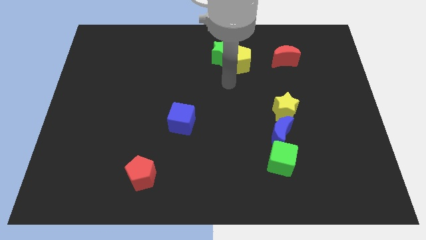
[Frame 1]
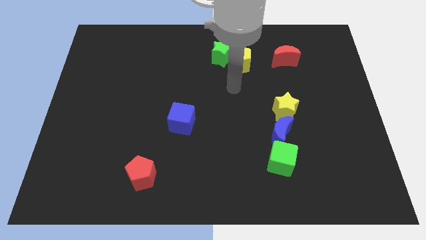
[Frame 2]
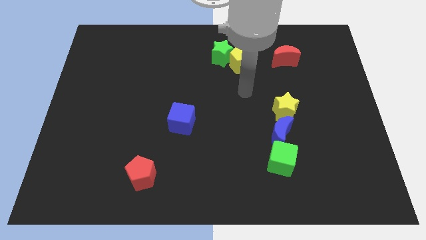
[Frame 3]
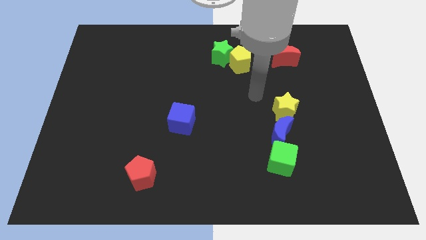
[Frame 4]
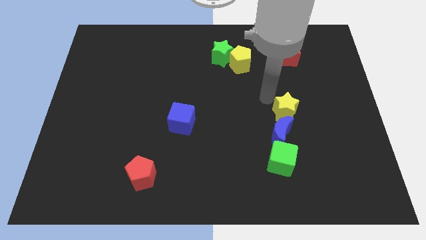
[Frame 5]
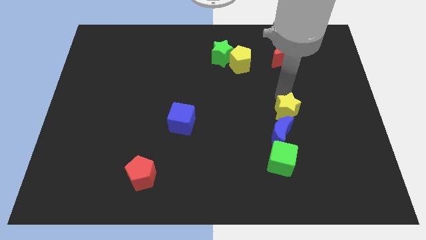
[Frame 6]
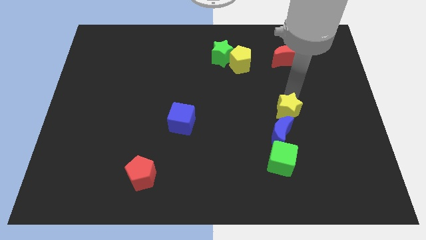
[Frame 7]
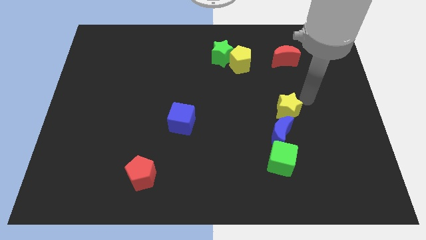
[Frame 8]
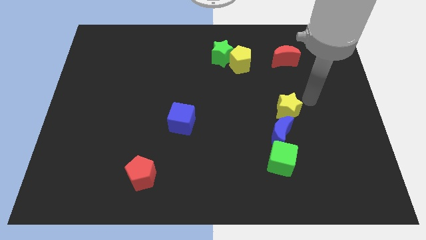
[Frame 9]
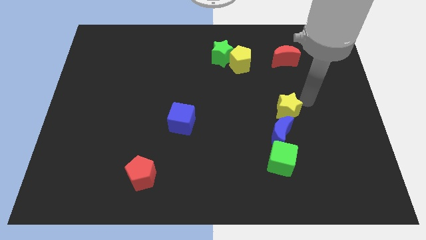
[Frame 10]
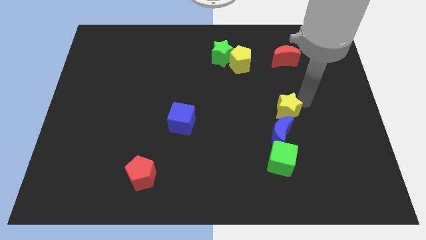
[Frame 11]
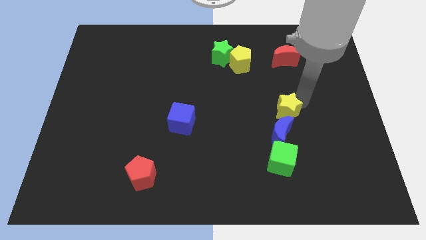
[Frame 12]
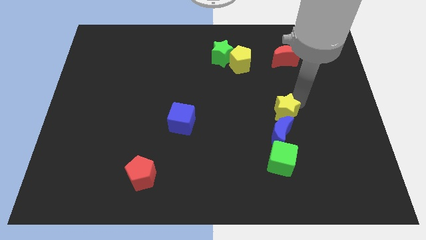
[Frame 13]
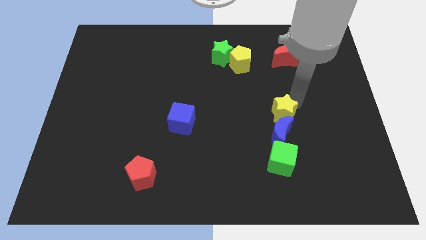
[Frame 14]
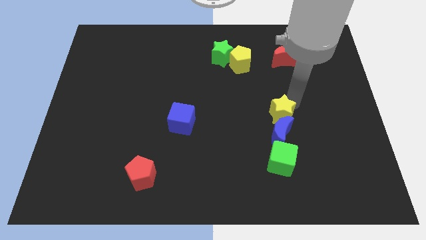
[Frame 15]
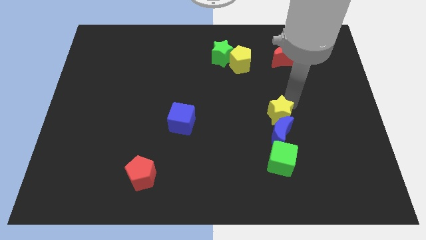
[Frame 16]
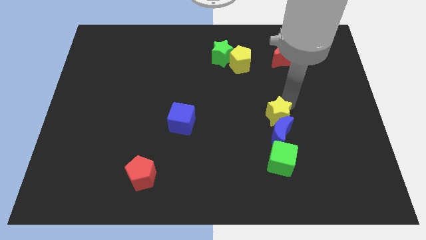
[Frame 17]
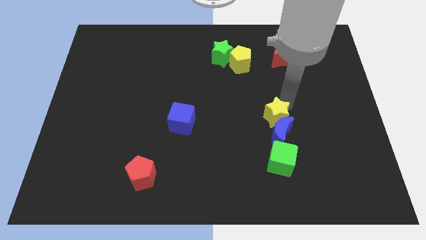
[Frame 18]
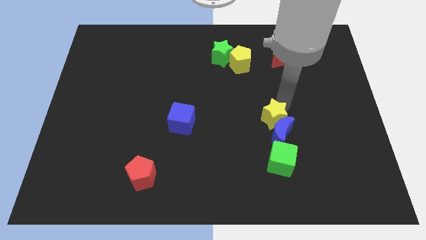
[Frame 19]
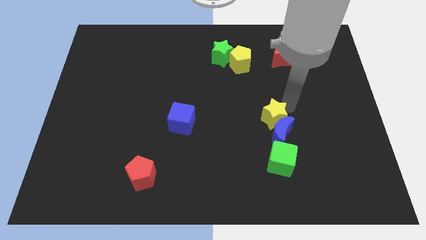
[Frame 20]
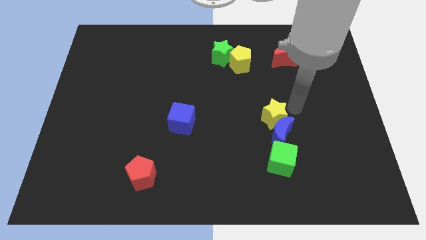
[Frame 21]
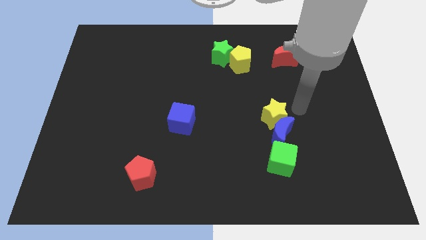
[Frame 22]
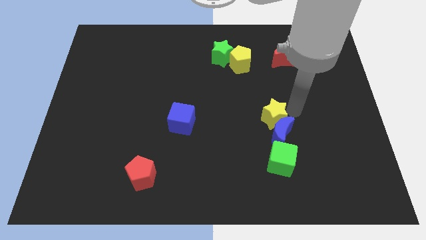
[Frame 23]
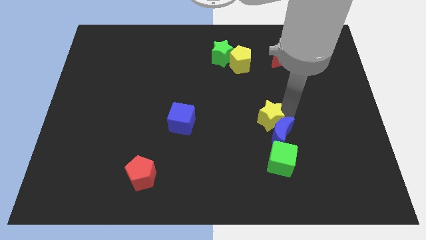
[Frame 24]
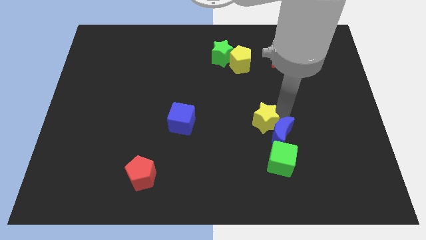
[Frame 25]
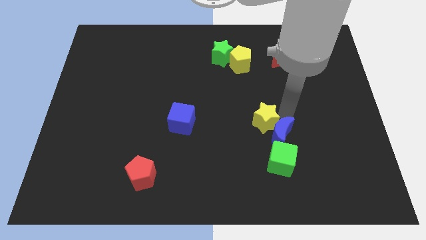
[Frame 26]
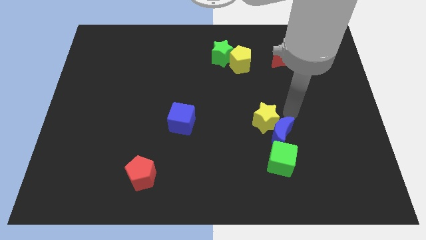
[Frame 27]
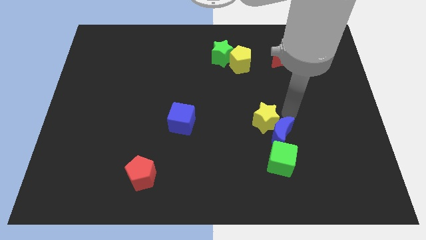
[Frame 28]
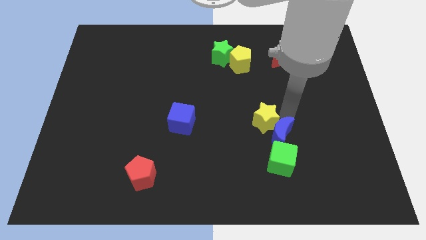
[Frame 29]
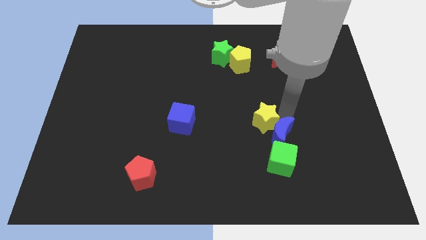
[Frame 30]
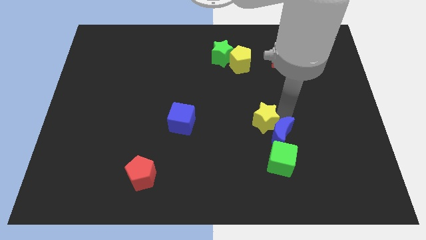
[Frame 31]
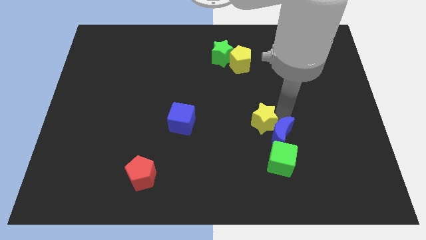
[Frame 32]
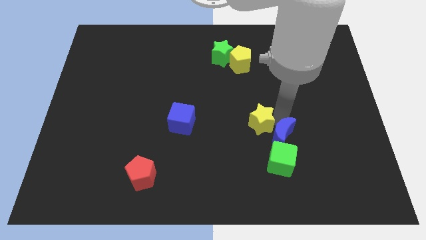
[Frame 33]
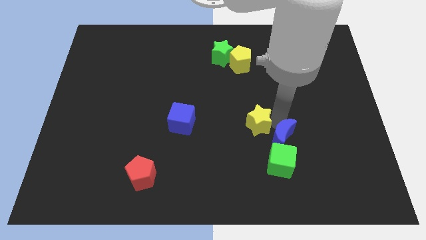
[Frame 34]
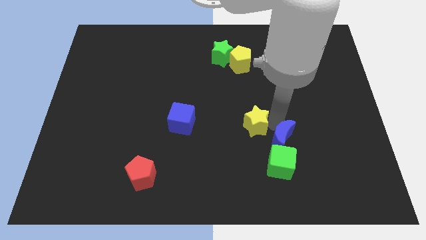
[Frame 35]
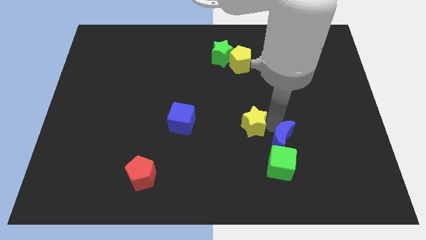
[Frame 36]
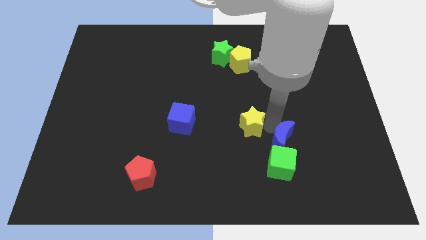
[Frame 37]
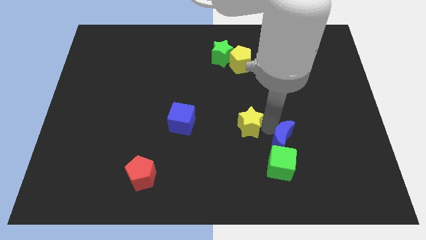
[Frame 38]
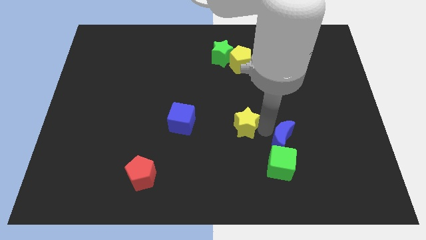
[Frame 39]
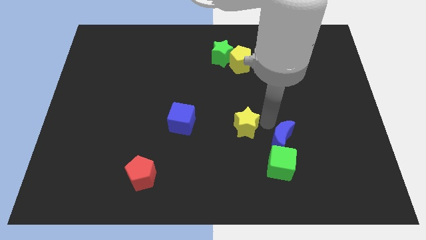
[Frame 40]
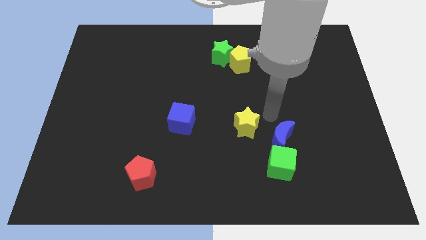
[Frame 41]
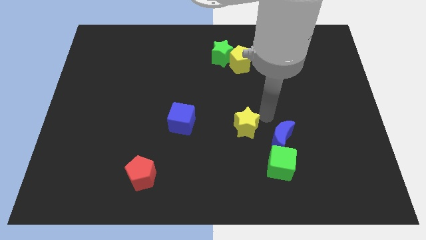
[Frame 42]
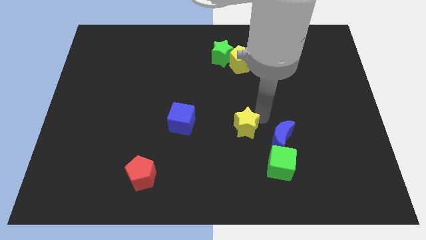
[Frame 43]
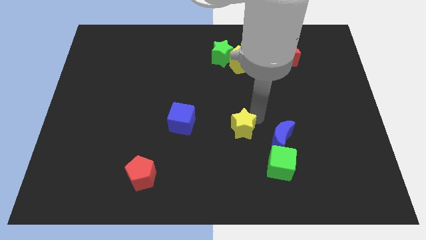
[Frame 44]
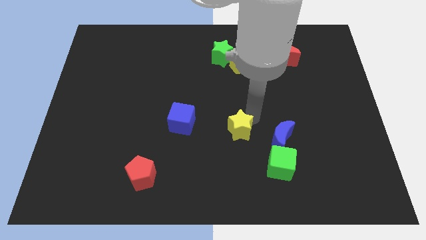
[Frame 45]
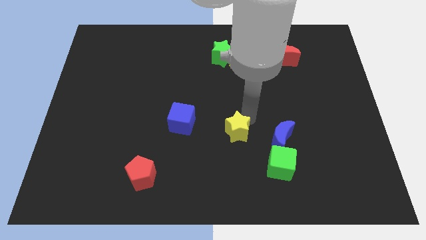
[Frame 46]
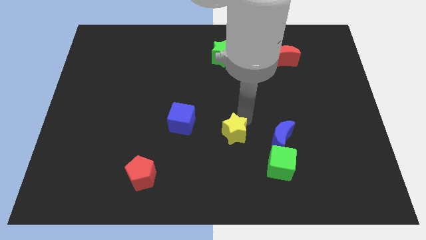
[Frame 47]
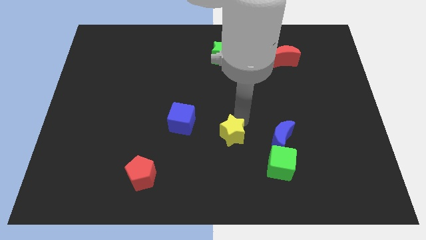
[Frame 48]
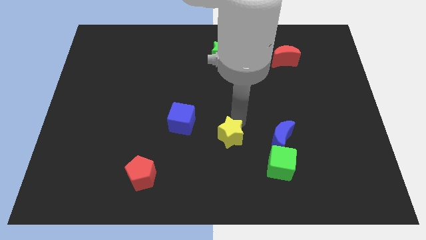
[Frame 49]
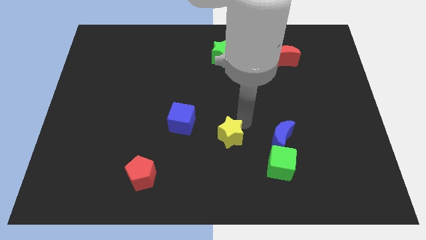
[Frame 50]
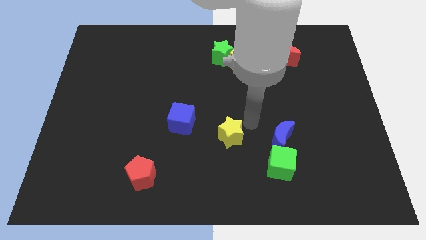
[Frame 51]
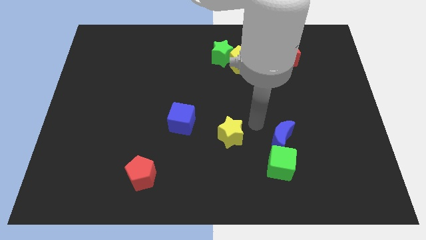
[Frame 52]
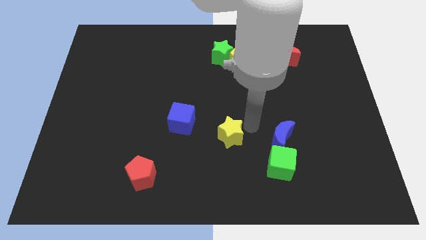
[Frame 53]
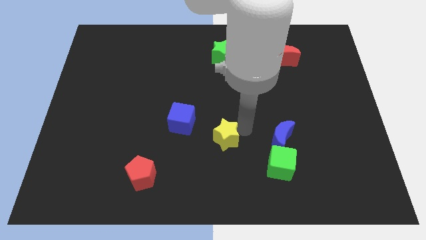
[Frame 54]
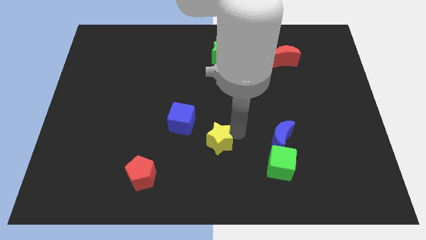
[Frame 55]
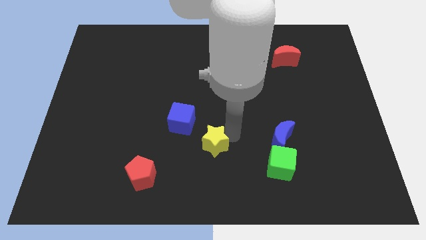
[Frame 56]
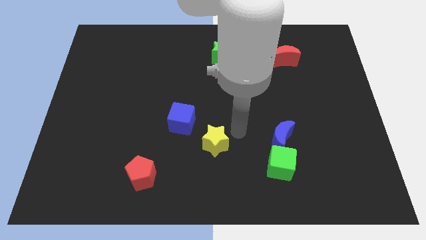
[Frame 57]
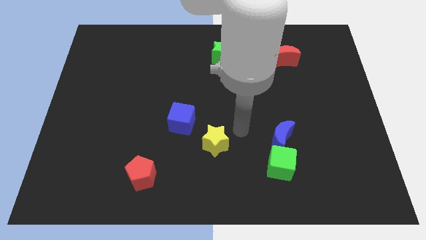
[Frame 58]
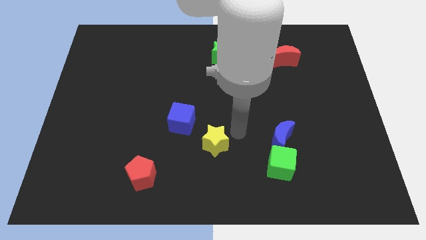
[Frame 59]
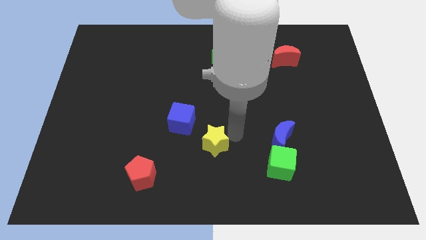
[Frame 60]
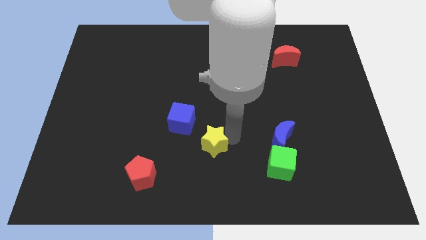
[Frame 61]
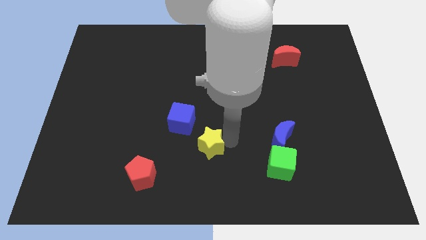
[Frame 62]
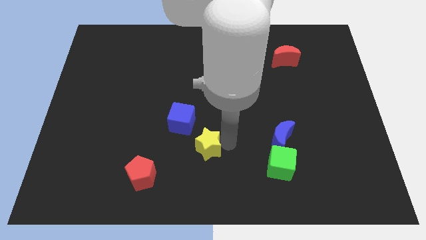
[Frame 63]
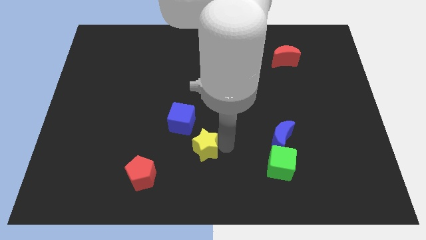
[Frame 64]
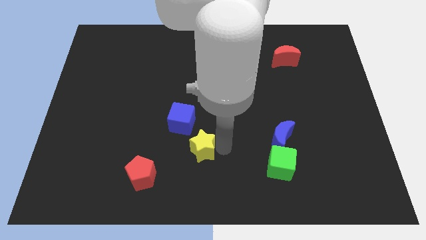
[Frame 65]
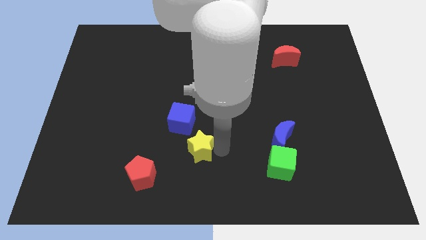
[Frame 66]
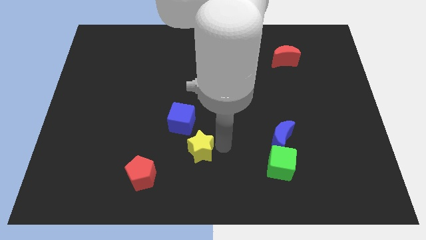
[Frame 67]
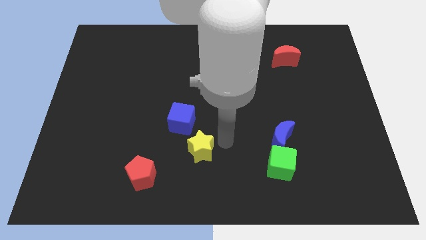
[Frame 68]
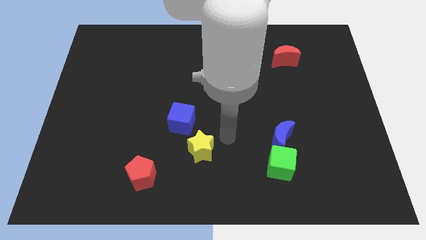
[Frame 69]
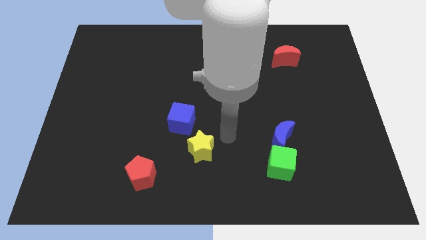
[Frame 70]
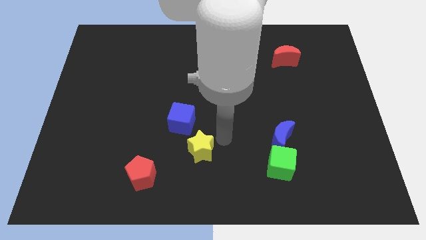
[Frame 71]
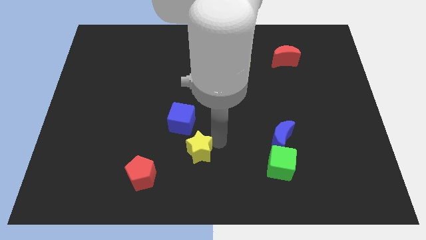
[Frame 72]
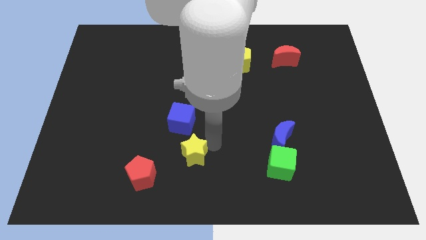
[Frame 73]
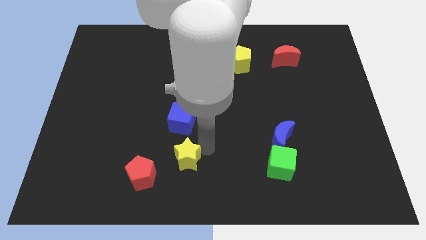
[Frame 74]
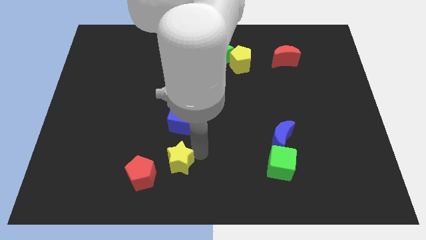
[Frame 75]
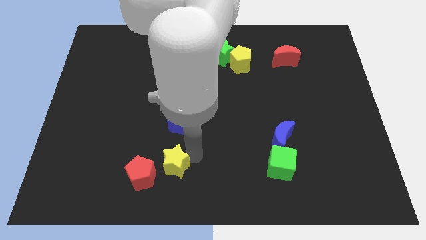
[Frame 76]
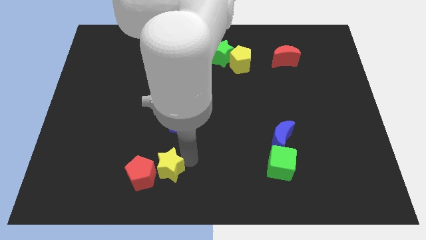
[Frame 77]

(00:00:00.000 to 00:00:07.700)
push the yellow star close to the red pentagon
